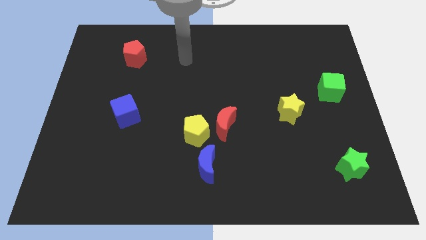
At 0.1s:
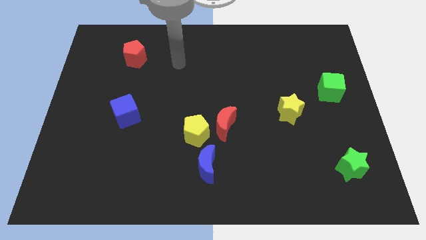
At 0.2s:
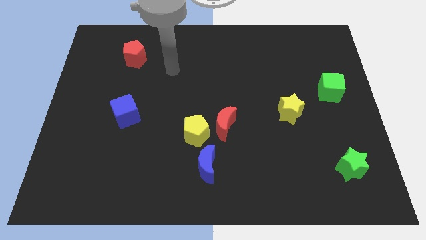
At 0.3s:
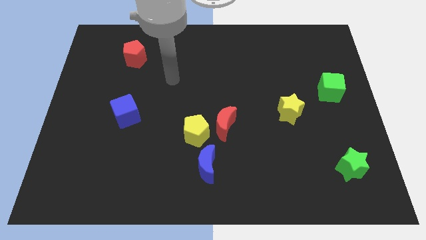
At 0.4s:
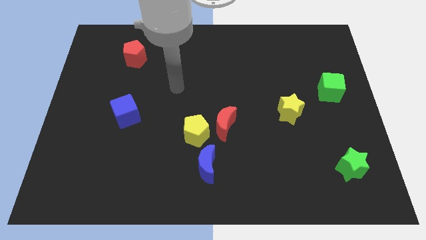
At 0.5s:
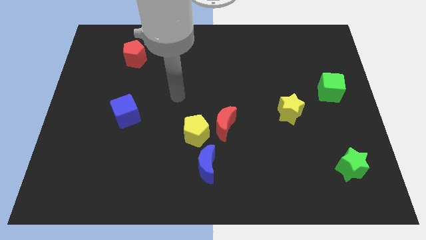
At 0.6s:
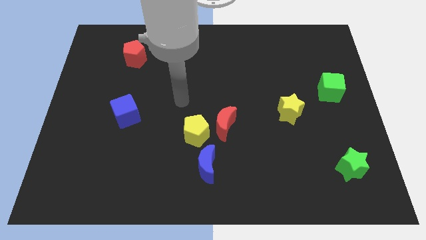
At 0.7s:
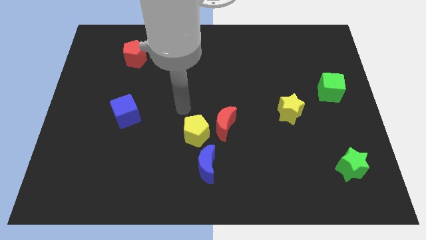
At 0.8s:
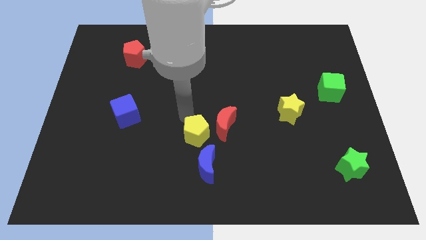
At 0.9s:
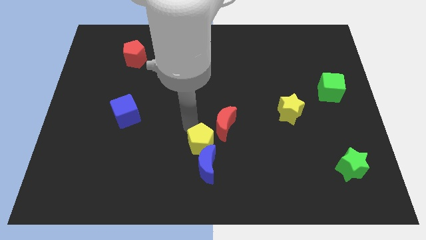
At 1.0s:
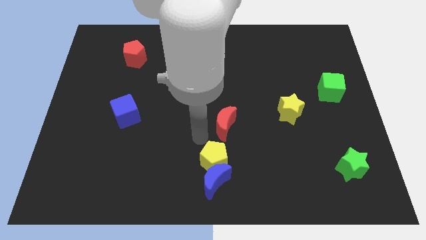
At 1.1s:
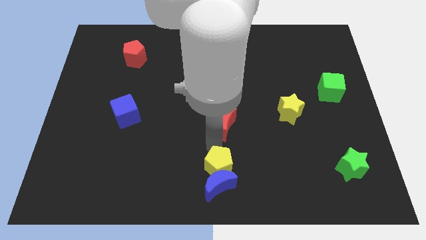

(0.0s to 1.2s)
separate the red moon from the yellow pentagon

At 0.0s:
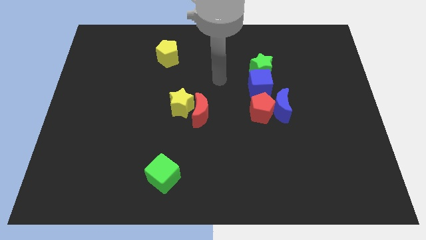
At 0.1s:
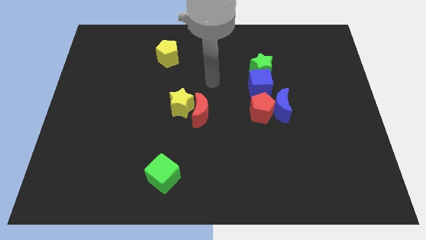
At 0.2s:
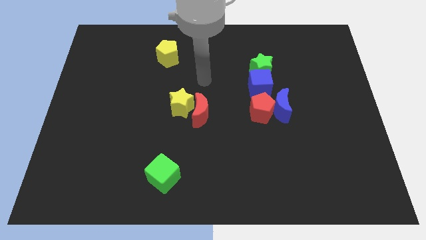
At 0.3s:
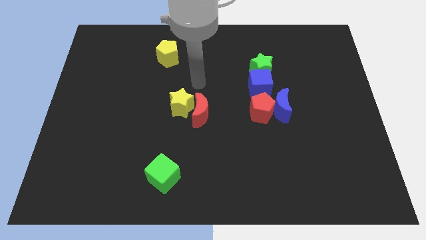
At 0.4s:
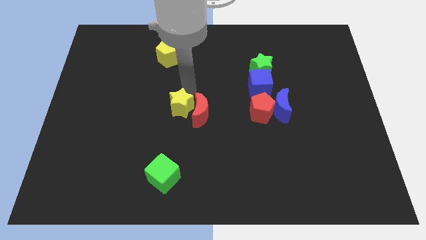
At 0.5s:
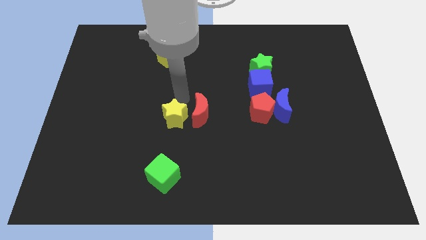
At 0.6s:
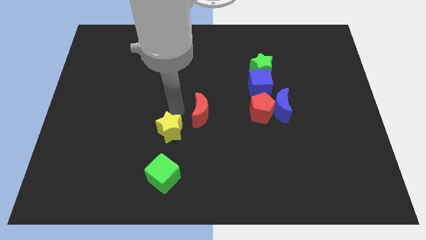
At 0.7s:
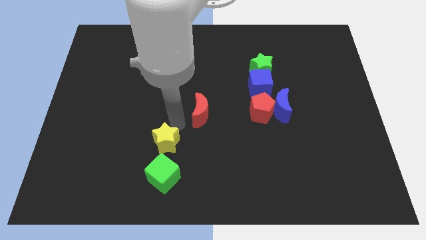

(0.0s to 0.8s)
move the red moon away from the yellow star

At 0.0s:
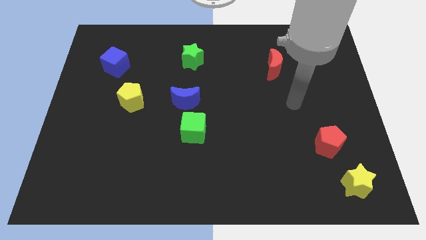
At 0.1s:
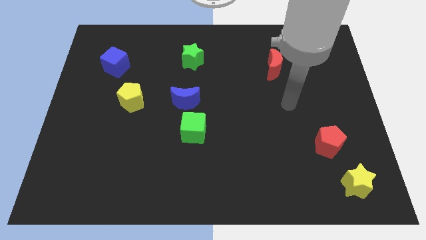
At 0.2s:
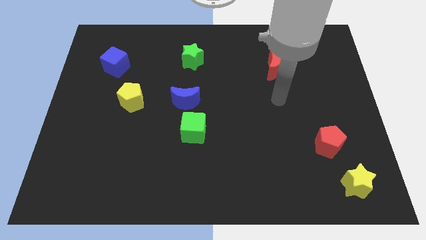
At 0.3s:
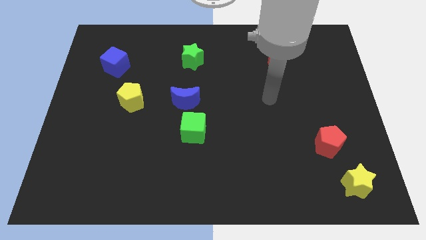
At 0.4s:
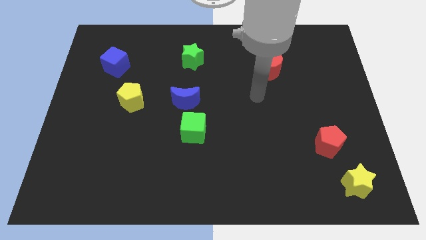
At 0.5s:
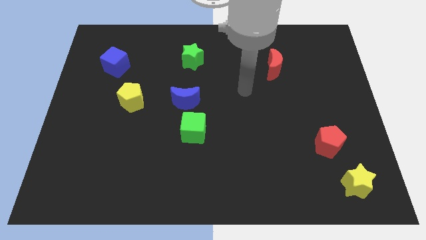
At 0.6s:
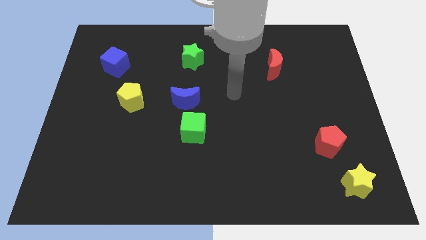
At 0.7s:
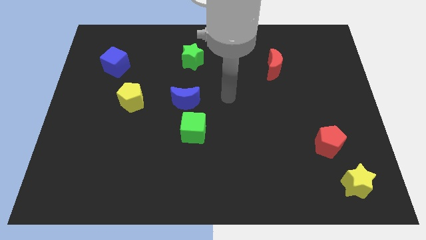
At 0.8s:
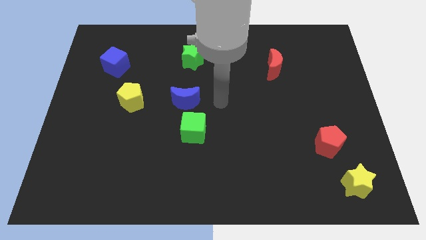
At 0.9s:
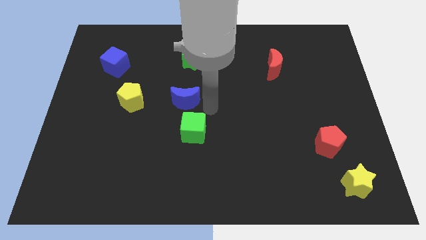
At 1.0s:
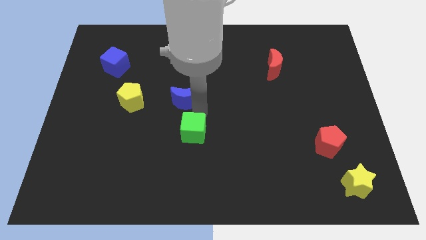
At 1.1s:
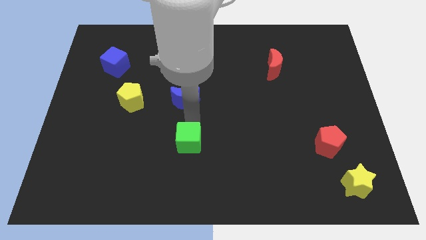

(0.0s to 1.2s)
pull the blue moon apart from the green cube

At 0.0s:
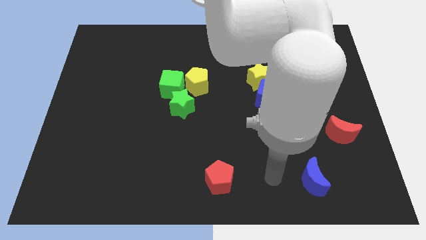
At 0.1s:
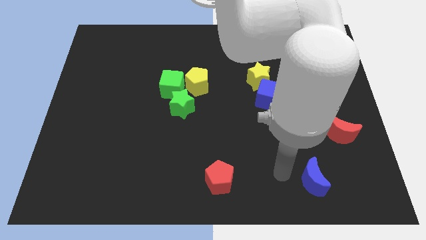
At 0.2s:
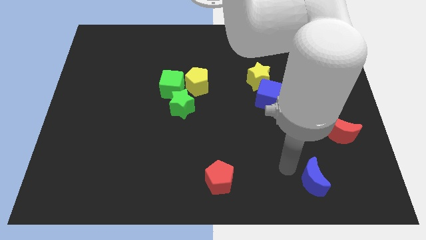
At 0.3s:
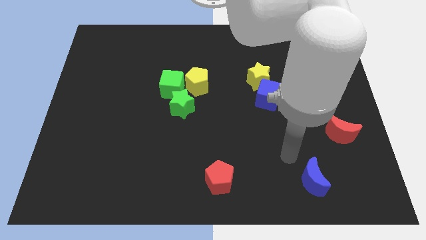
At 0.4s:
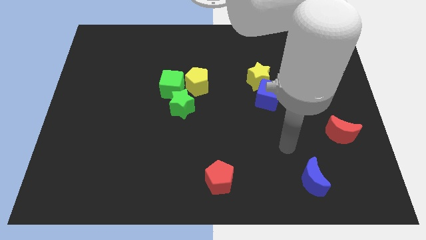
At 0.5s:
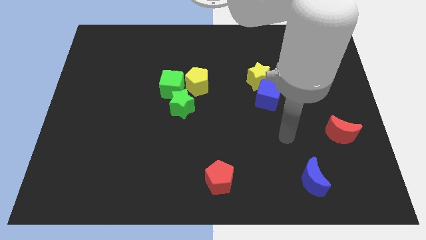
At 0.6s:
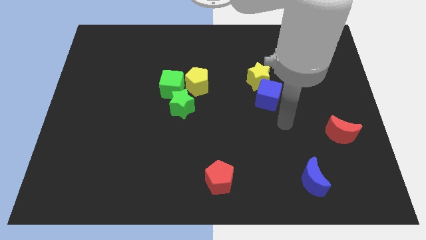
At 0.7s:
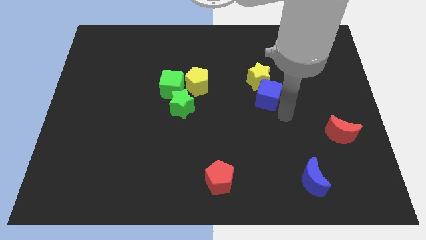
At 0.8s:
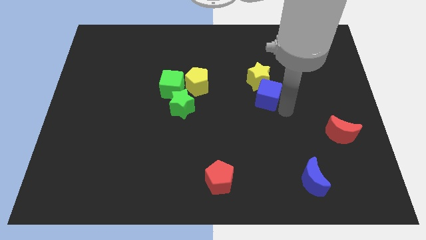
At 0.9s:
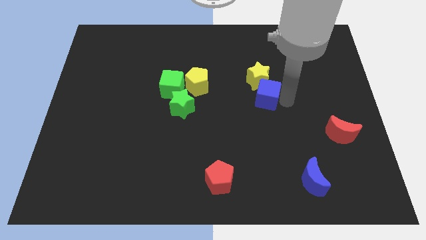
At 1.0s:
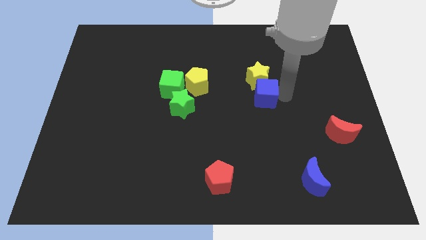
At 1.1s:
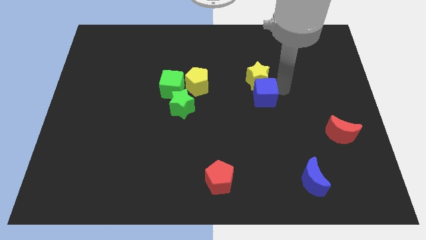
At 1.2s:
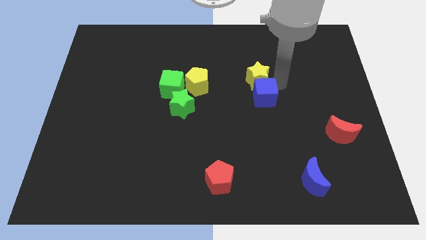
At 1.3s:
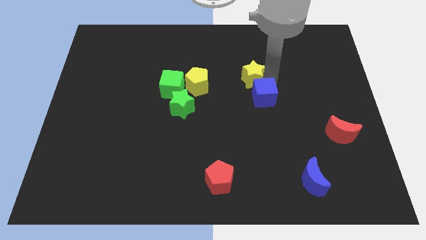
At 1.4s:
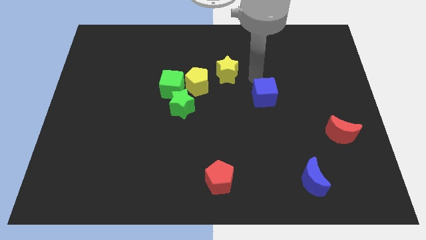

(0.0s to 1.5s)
move the blue cube away from the yellow star

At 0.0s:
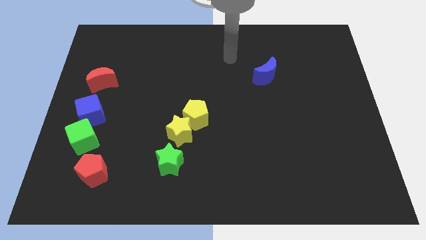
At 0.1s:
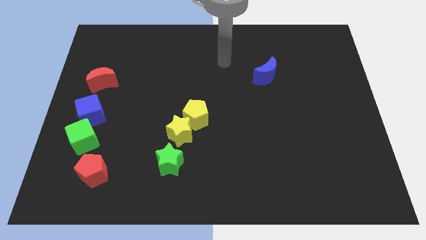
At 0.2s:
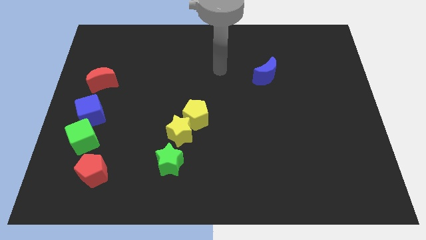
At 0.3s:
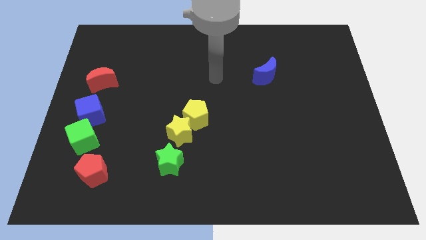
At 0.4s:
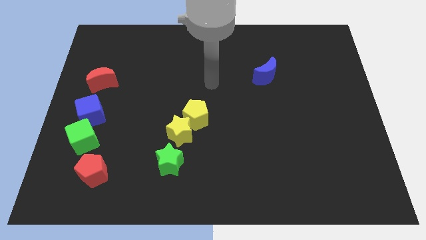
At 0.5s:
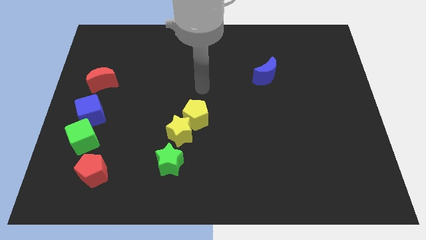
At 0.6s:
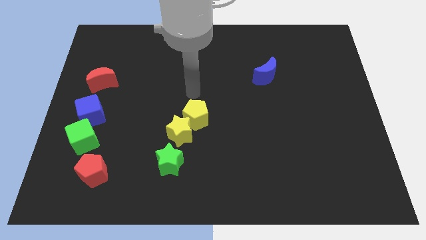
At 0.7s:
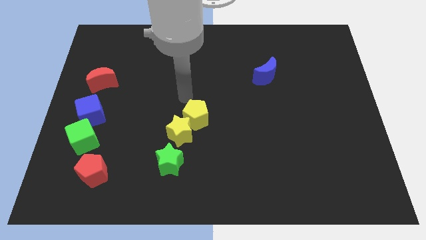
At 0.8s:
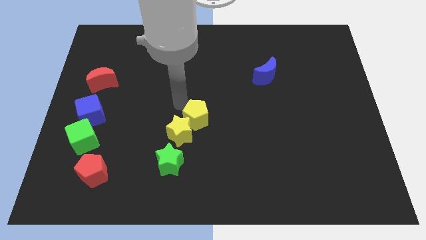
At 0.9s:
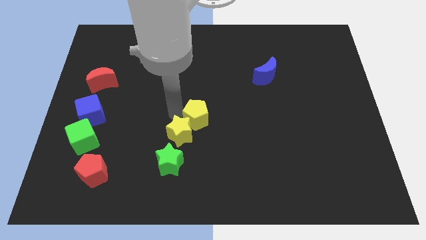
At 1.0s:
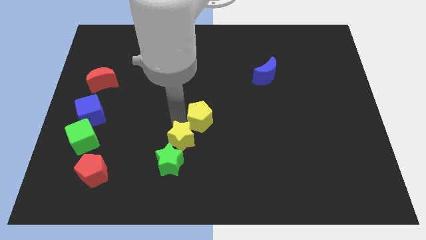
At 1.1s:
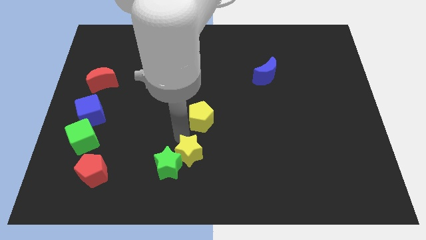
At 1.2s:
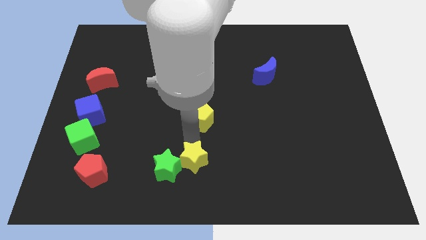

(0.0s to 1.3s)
separate the yellow pentagon from the yellow star

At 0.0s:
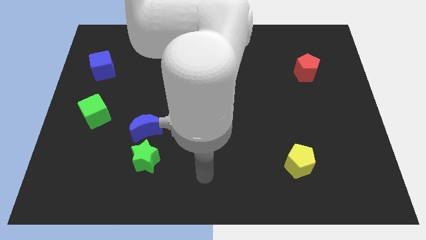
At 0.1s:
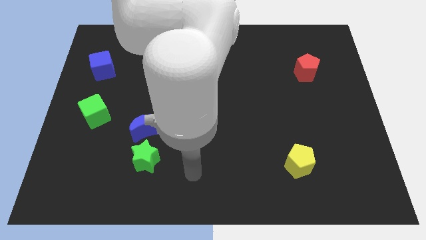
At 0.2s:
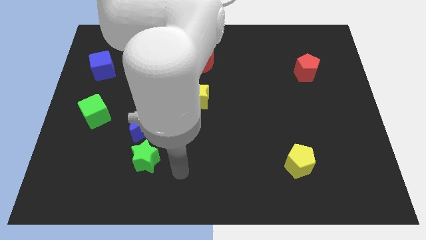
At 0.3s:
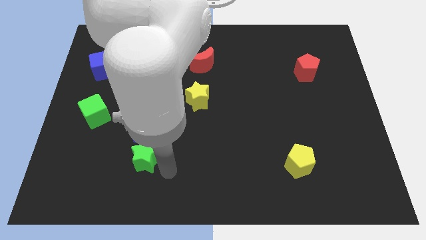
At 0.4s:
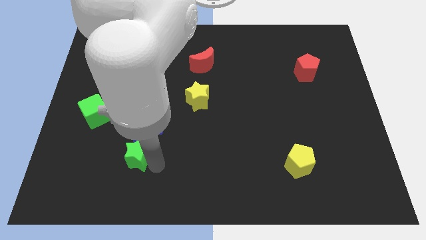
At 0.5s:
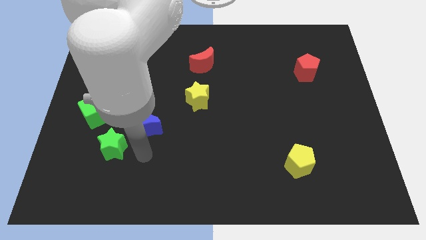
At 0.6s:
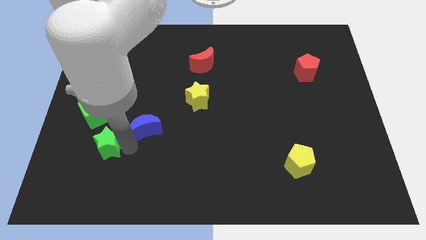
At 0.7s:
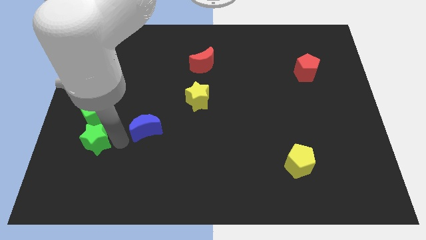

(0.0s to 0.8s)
separate the blue moon from the green star

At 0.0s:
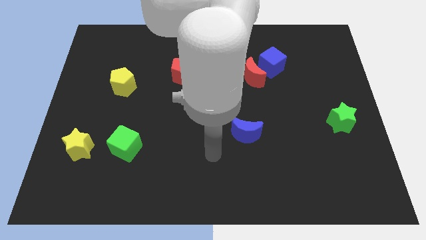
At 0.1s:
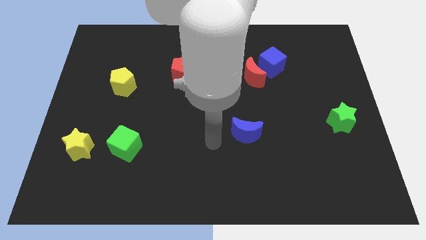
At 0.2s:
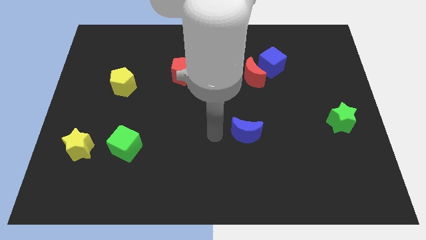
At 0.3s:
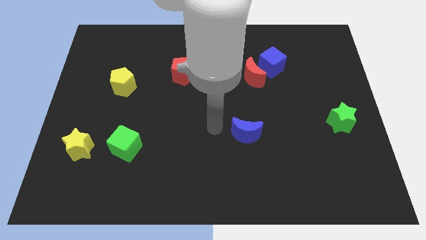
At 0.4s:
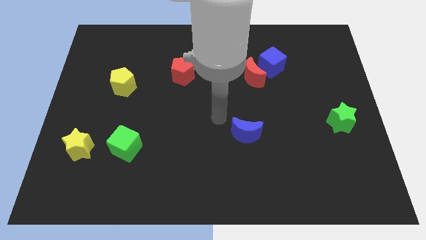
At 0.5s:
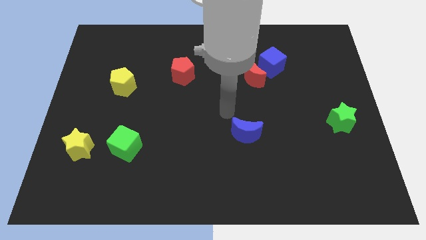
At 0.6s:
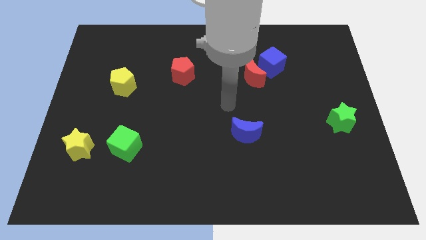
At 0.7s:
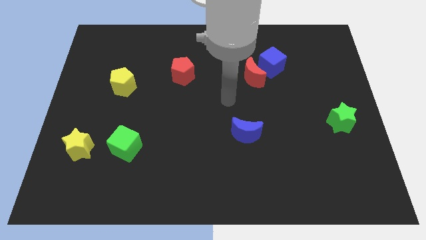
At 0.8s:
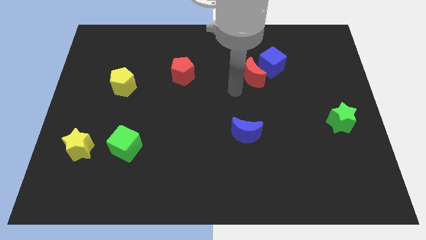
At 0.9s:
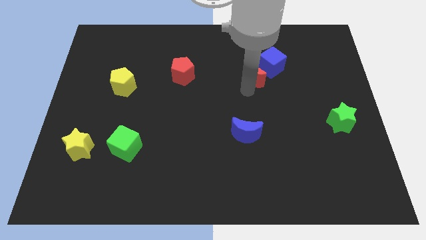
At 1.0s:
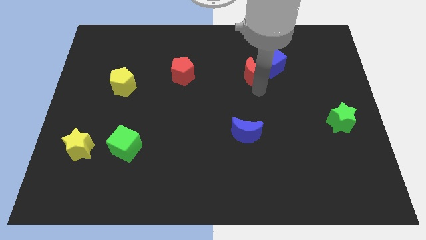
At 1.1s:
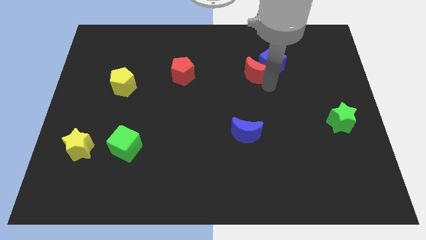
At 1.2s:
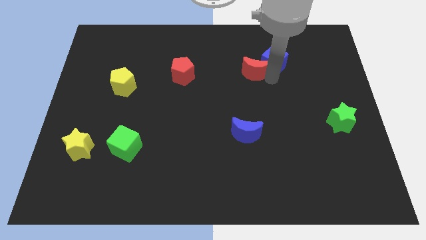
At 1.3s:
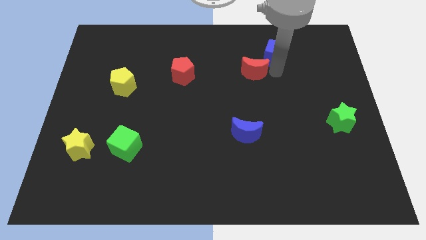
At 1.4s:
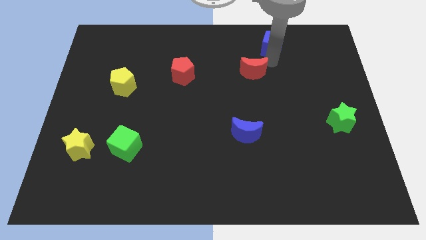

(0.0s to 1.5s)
pull the red moon apart from the blue cube

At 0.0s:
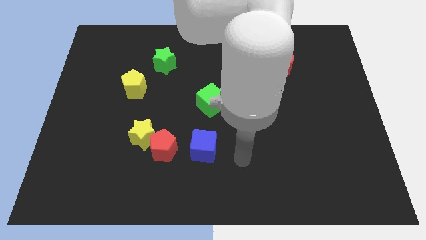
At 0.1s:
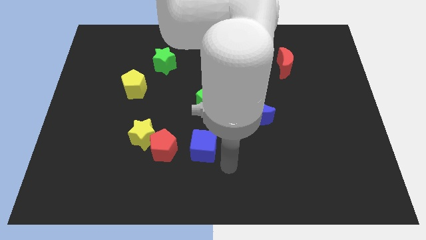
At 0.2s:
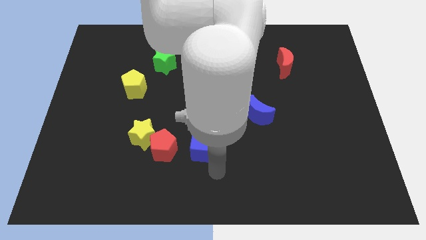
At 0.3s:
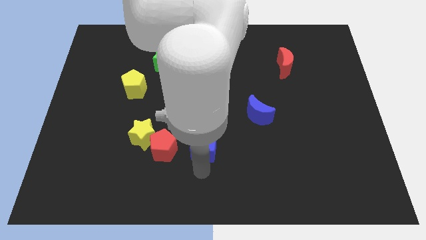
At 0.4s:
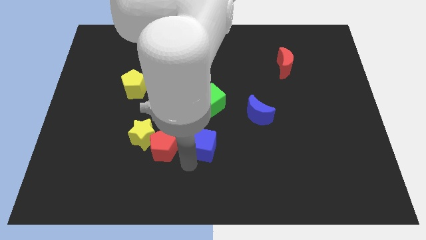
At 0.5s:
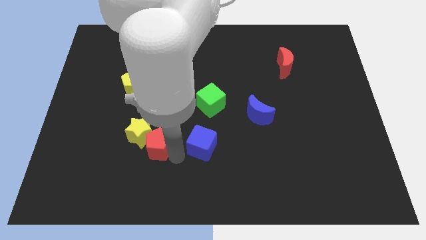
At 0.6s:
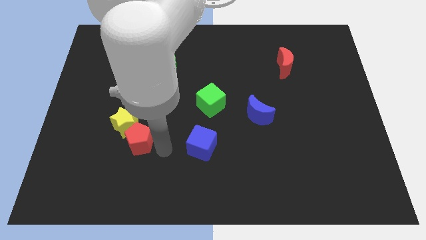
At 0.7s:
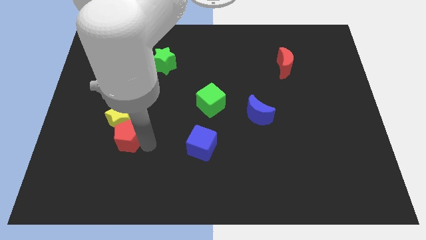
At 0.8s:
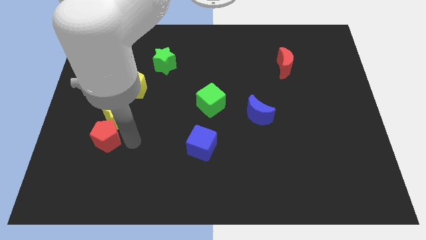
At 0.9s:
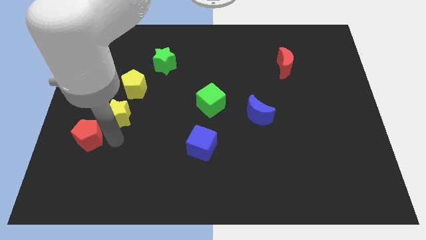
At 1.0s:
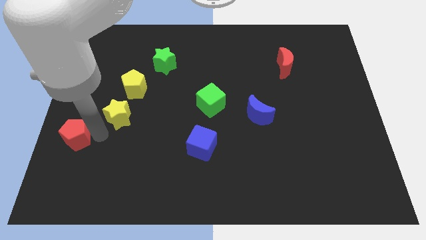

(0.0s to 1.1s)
separate the yellow star from the red pentagon
